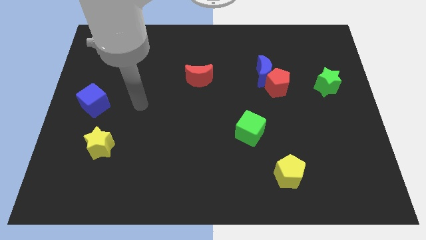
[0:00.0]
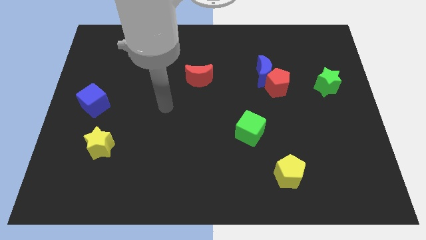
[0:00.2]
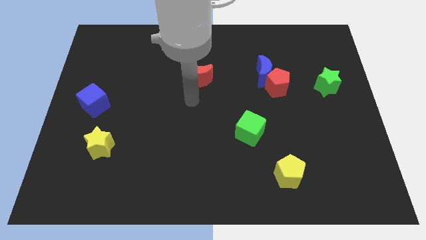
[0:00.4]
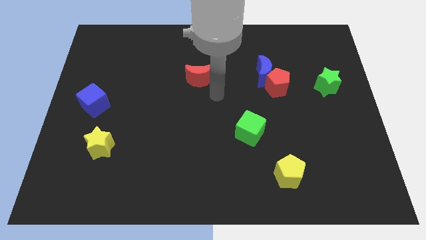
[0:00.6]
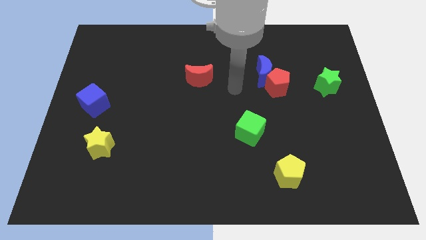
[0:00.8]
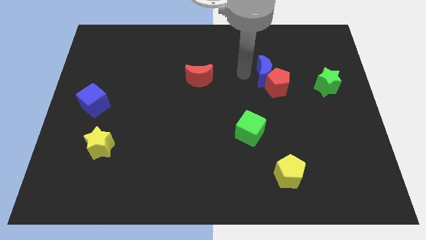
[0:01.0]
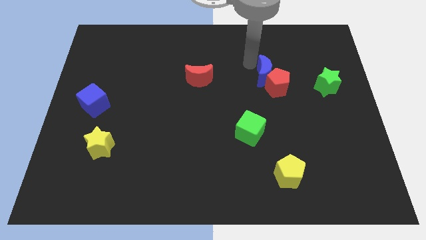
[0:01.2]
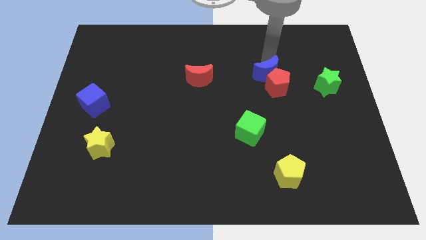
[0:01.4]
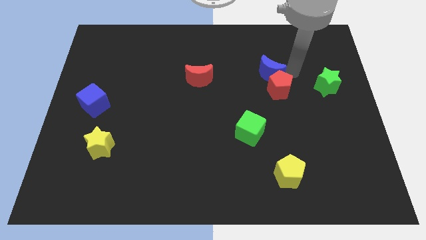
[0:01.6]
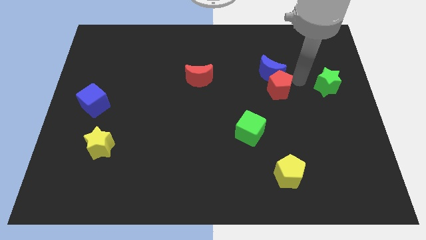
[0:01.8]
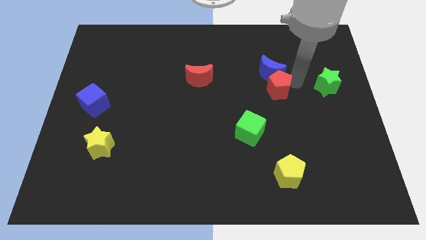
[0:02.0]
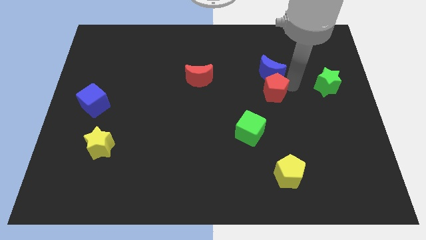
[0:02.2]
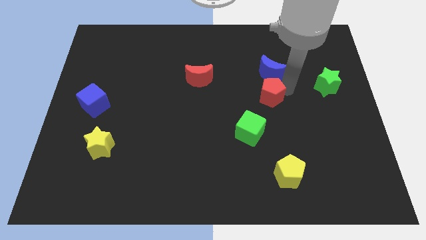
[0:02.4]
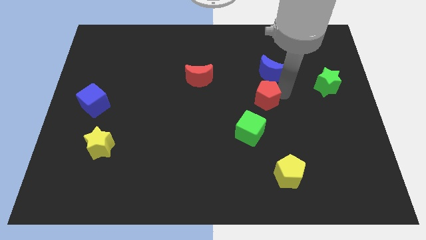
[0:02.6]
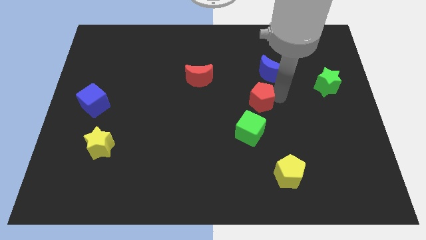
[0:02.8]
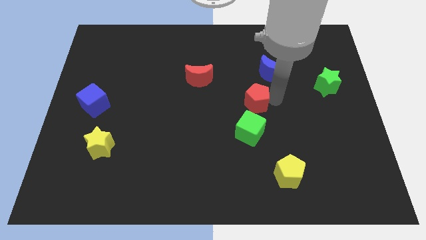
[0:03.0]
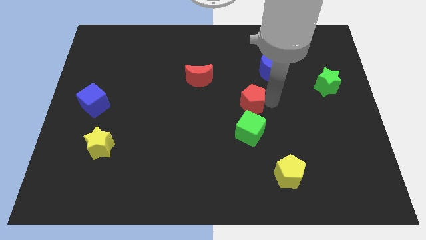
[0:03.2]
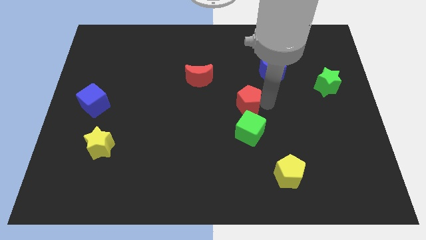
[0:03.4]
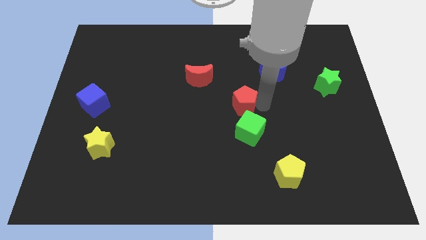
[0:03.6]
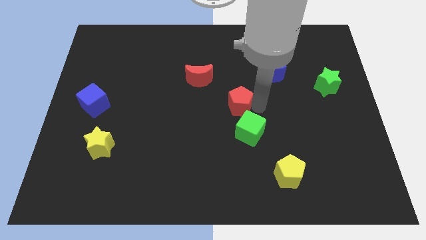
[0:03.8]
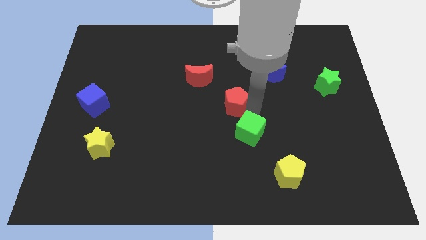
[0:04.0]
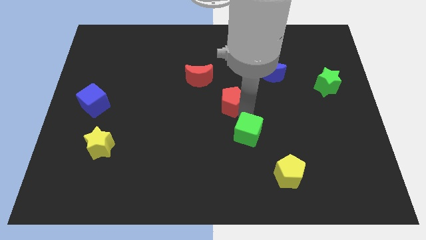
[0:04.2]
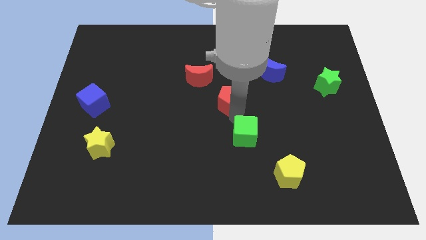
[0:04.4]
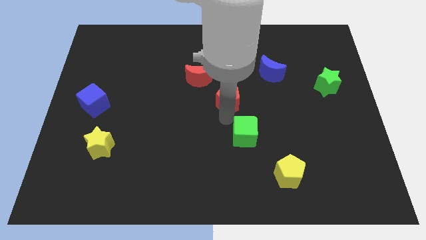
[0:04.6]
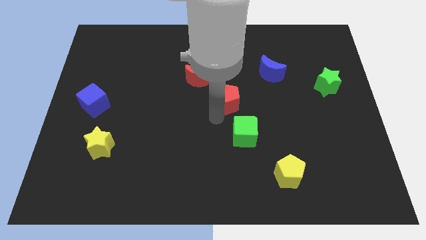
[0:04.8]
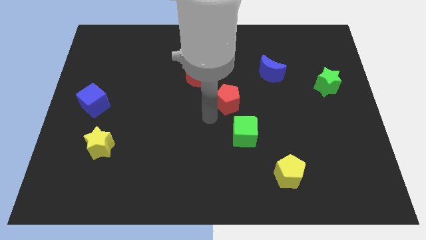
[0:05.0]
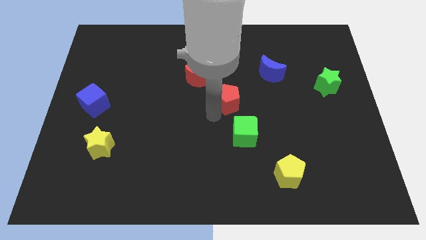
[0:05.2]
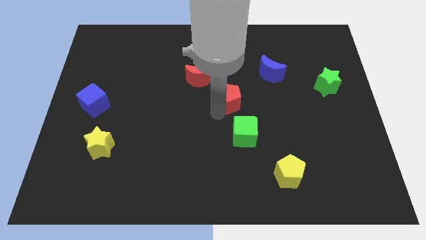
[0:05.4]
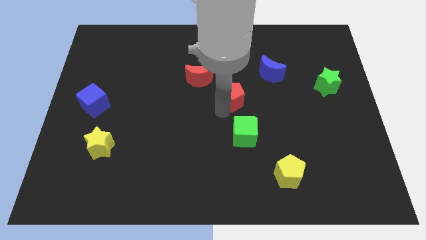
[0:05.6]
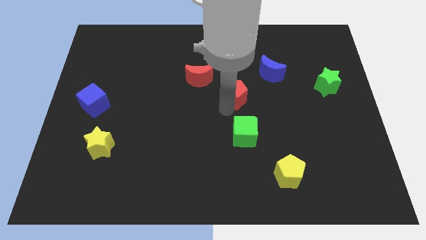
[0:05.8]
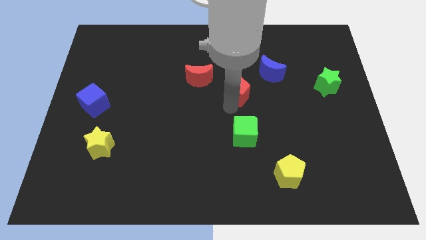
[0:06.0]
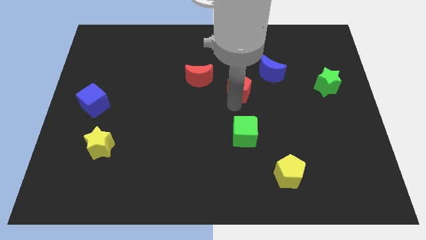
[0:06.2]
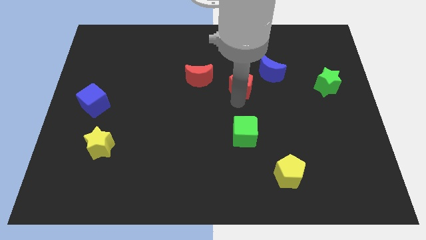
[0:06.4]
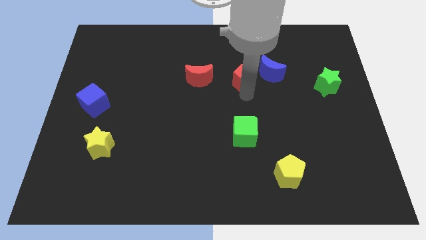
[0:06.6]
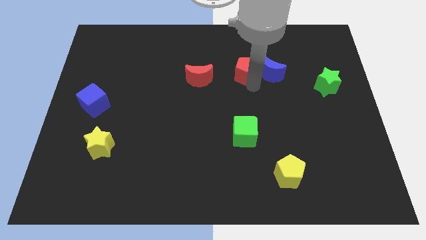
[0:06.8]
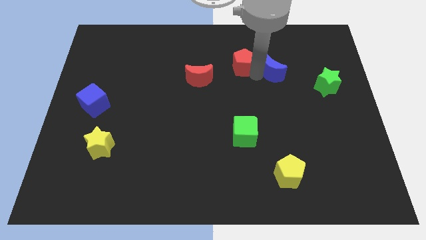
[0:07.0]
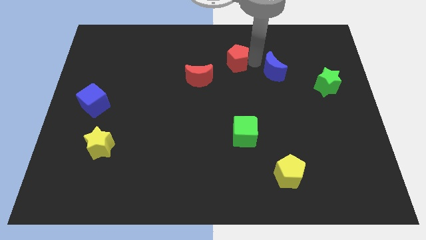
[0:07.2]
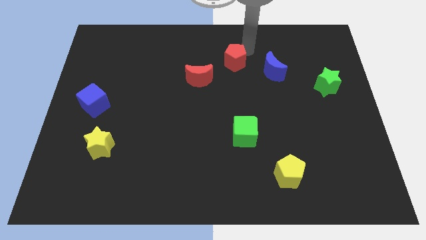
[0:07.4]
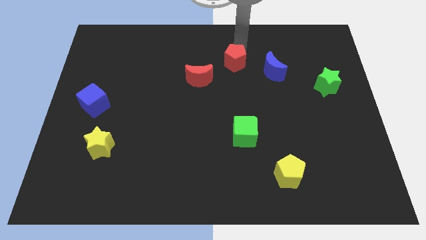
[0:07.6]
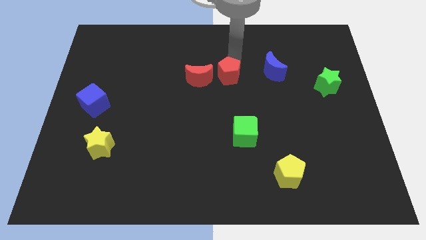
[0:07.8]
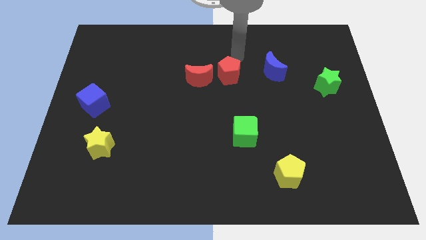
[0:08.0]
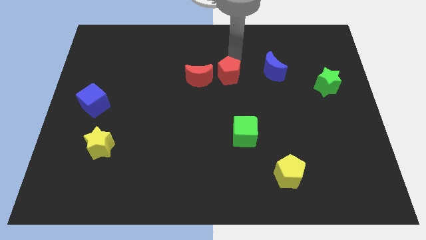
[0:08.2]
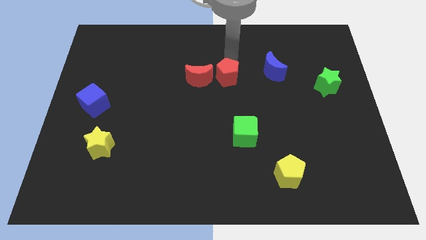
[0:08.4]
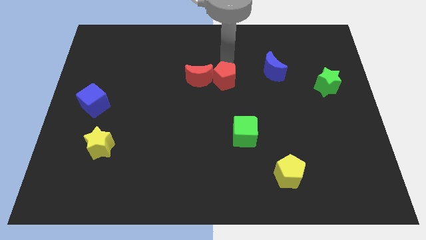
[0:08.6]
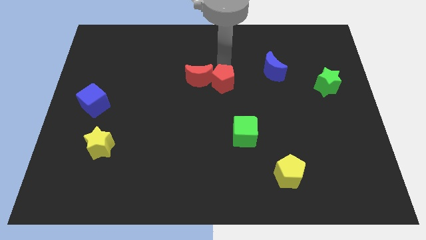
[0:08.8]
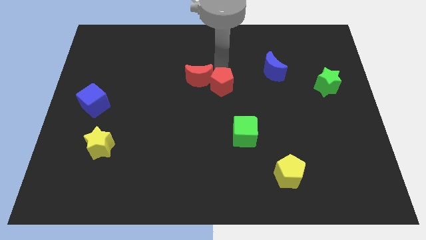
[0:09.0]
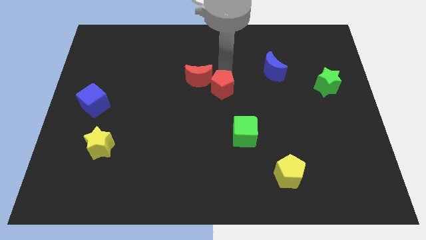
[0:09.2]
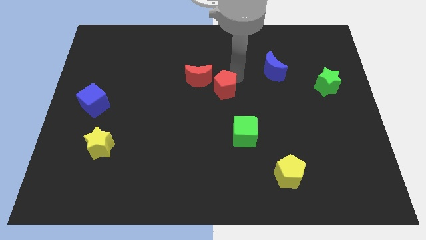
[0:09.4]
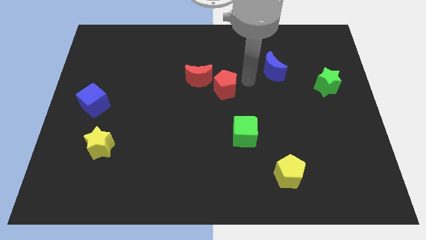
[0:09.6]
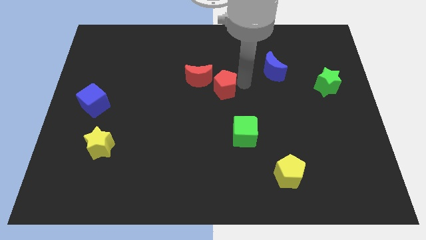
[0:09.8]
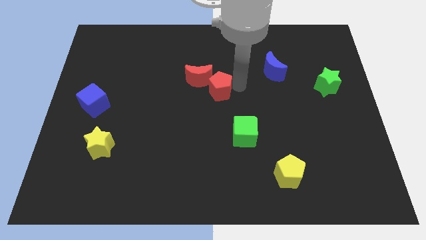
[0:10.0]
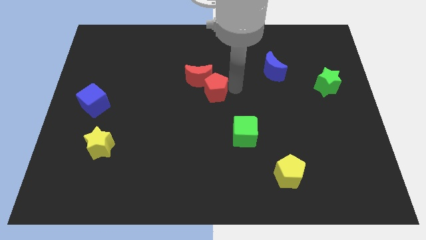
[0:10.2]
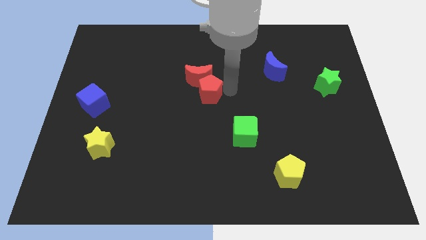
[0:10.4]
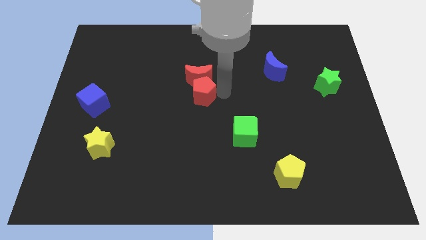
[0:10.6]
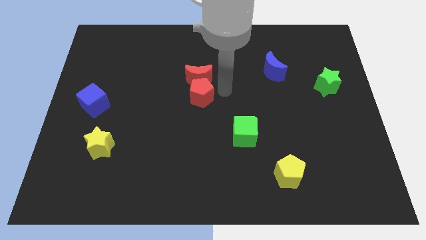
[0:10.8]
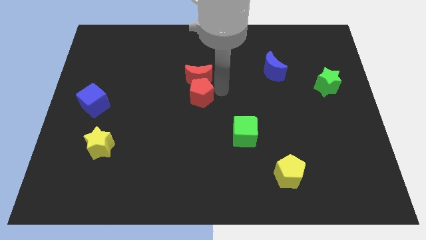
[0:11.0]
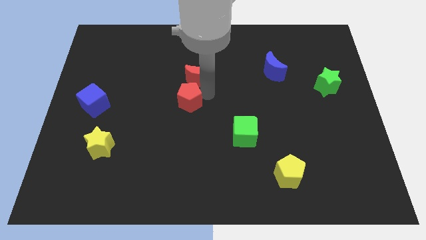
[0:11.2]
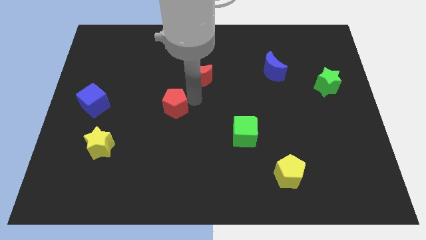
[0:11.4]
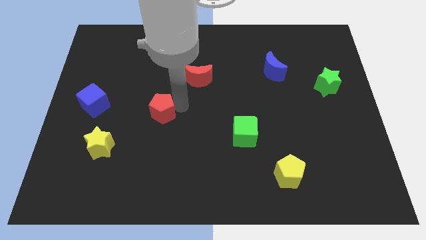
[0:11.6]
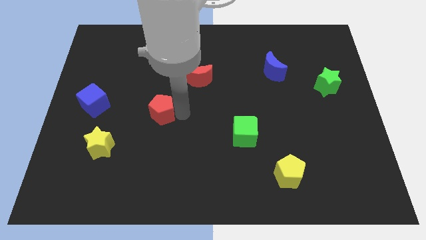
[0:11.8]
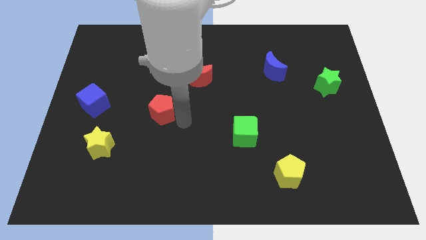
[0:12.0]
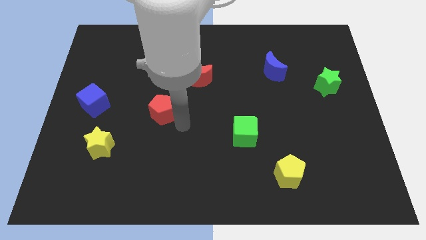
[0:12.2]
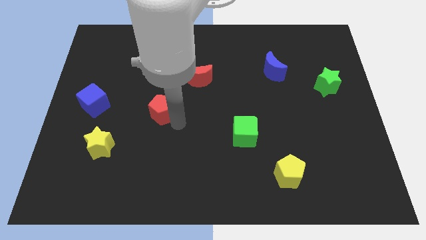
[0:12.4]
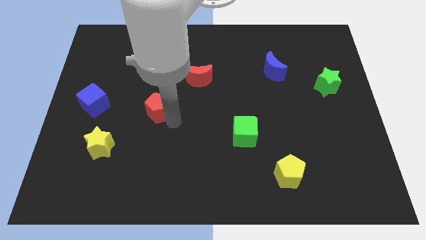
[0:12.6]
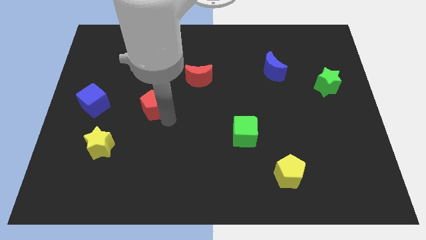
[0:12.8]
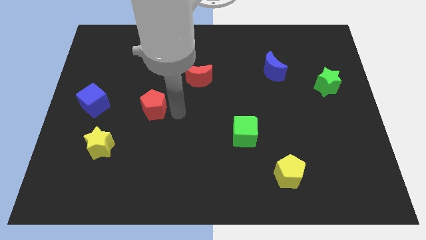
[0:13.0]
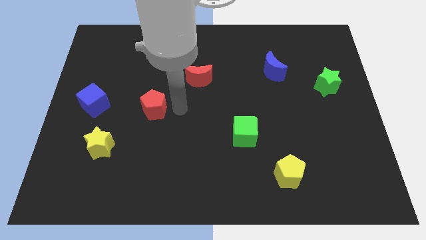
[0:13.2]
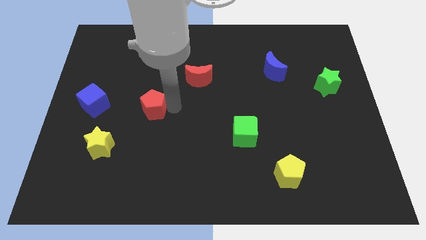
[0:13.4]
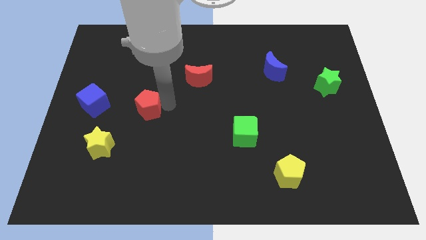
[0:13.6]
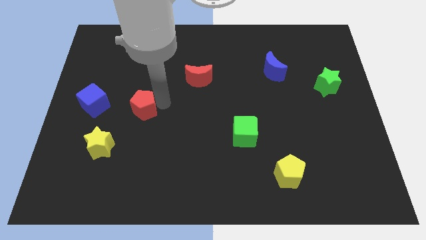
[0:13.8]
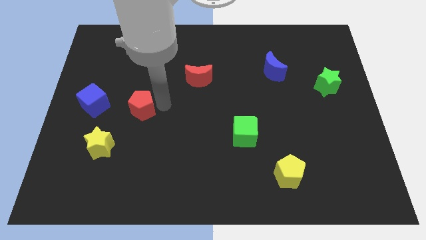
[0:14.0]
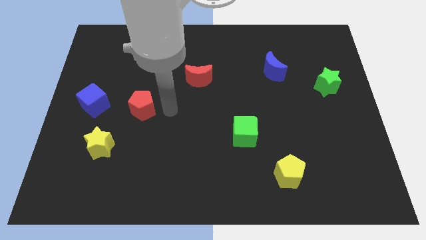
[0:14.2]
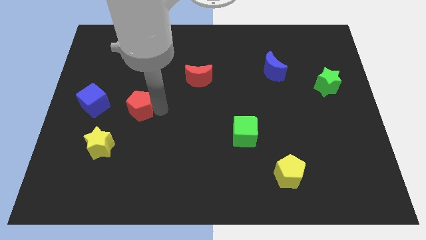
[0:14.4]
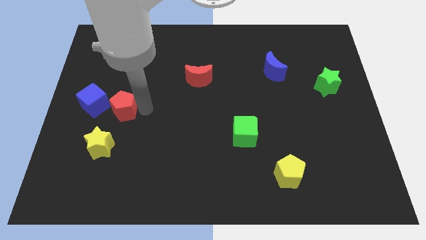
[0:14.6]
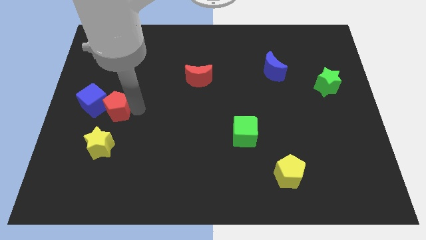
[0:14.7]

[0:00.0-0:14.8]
move the red pentagon towards the blue cube
